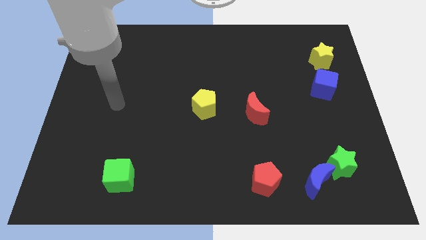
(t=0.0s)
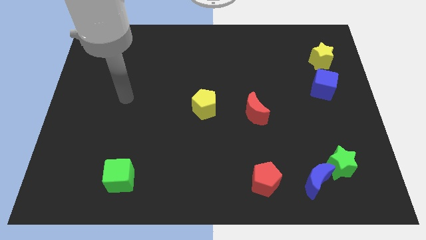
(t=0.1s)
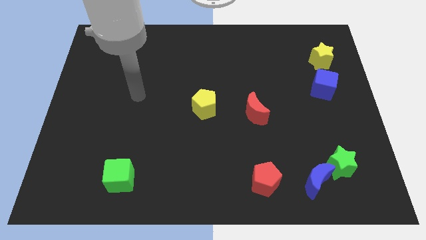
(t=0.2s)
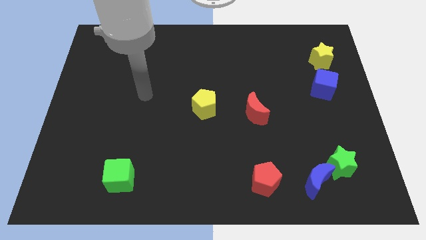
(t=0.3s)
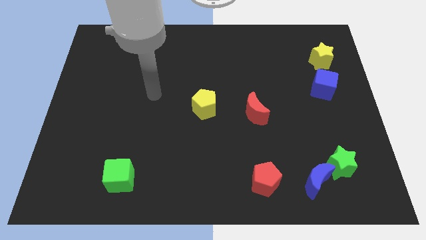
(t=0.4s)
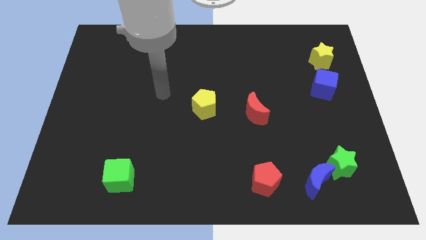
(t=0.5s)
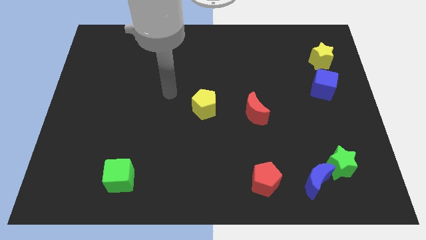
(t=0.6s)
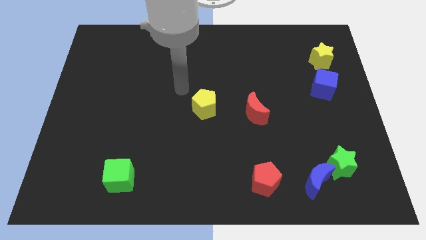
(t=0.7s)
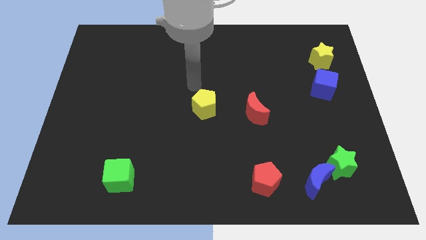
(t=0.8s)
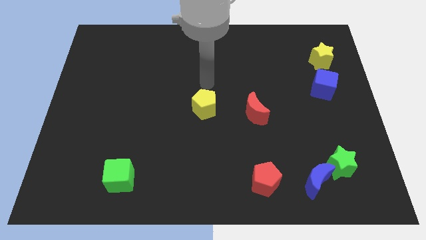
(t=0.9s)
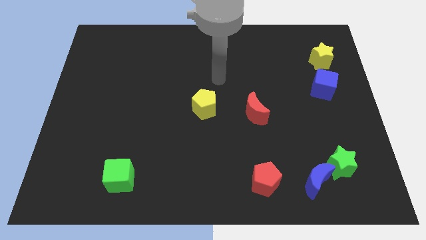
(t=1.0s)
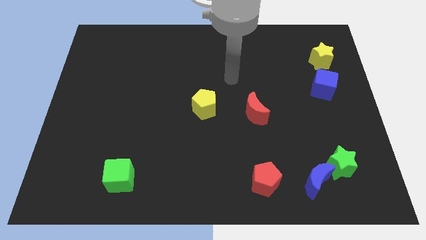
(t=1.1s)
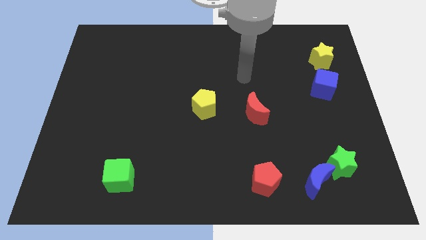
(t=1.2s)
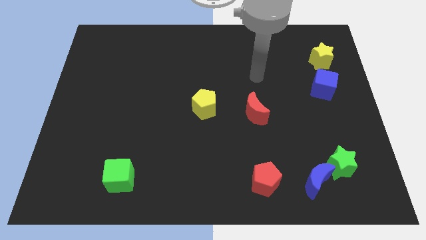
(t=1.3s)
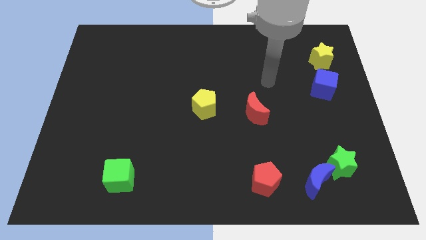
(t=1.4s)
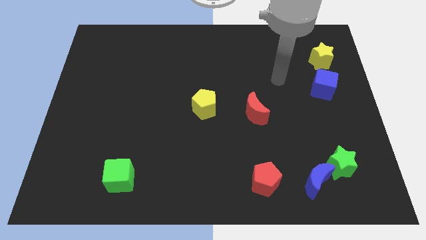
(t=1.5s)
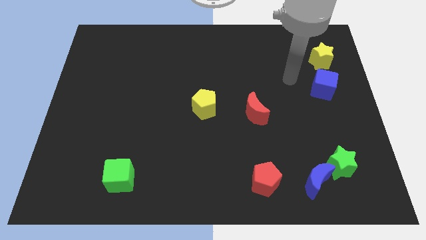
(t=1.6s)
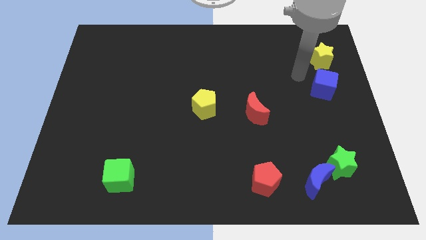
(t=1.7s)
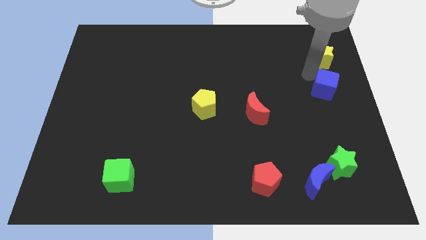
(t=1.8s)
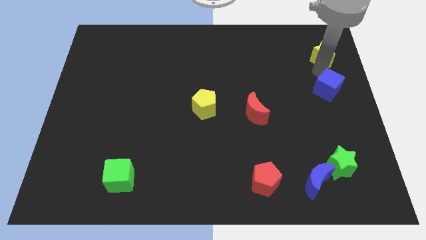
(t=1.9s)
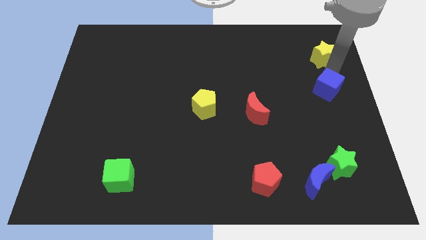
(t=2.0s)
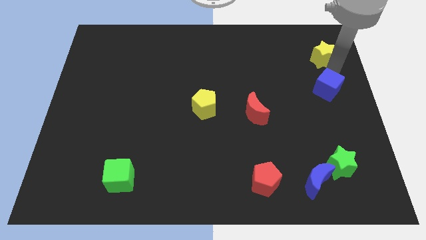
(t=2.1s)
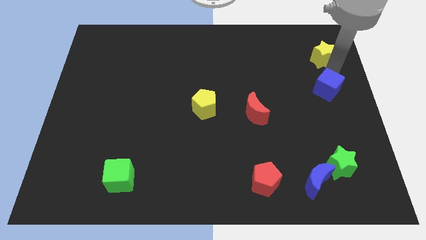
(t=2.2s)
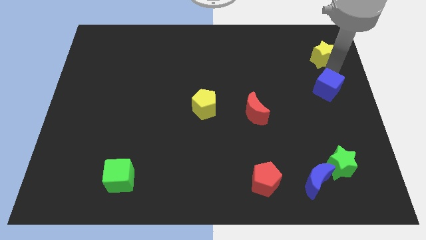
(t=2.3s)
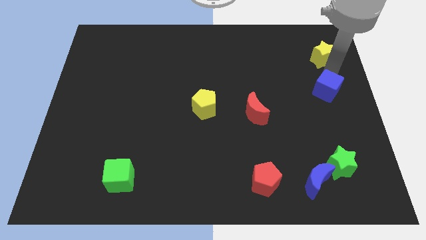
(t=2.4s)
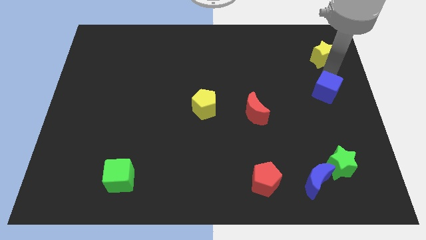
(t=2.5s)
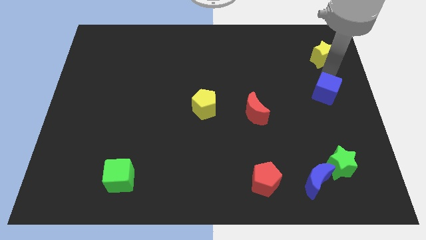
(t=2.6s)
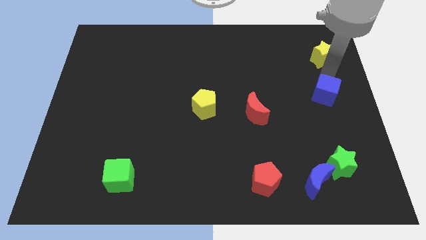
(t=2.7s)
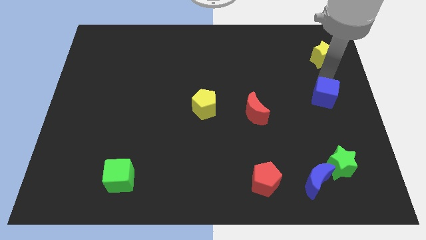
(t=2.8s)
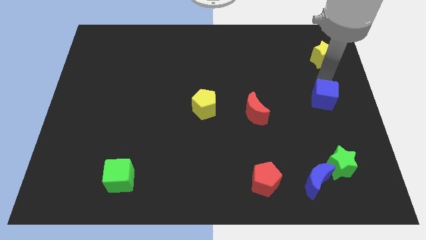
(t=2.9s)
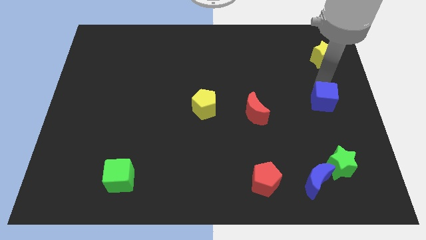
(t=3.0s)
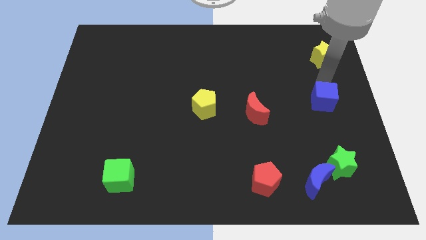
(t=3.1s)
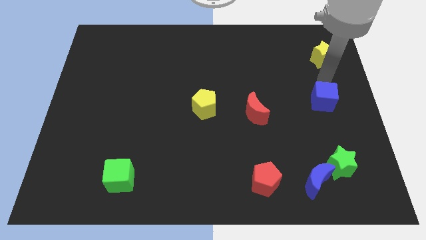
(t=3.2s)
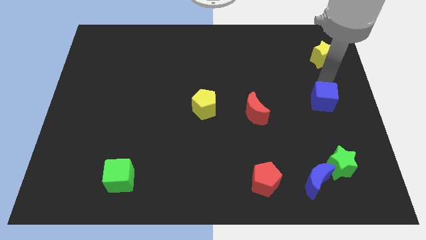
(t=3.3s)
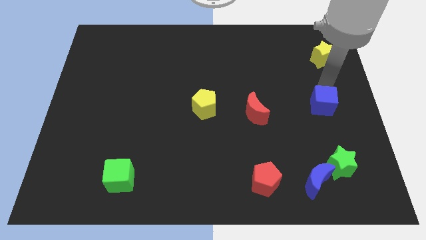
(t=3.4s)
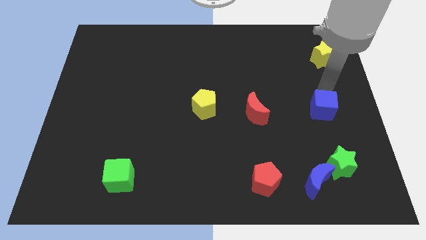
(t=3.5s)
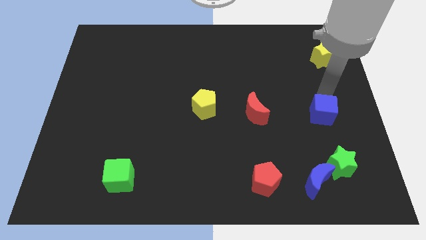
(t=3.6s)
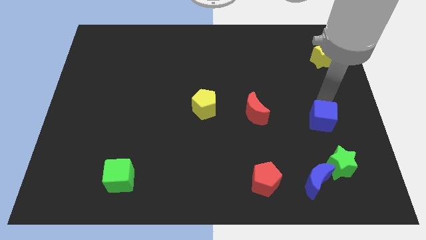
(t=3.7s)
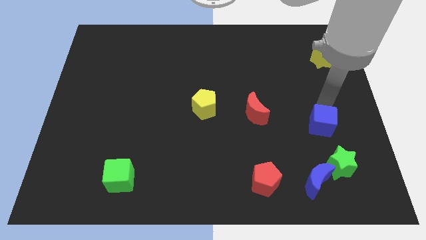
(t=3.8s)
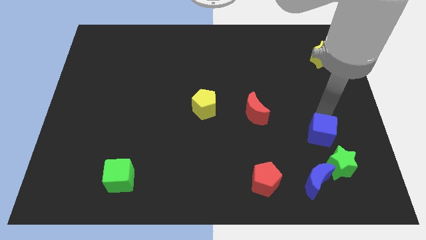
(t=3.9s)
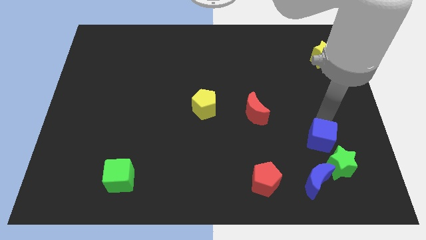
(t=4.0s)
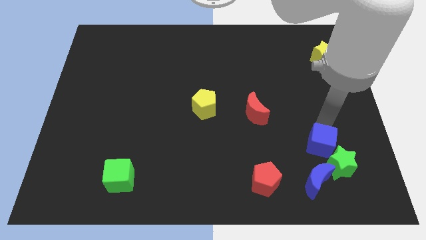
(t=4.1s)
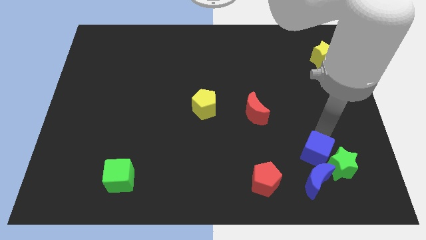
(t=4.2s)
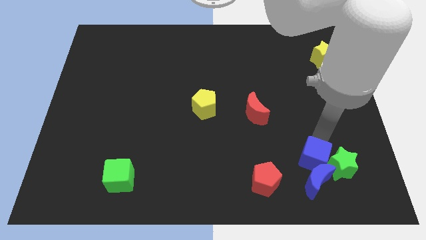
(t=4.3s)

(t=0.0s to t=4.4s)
move the blue cube to the blue moon

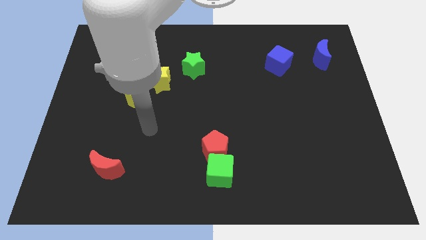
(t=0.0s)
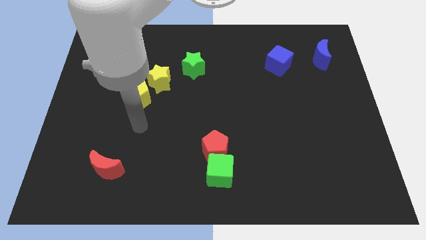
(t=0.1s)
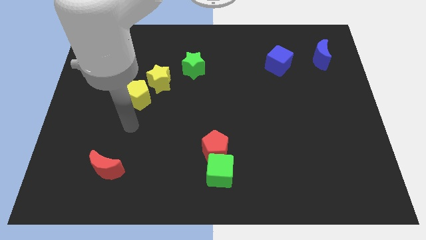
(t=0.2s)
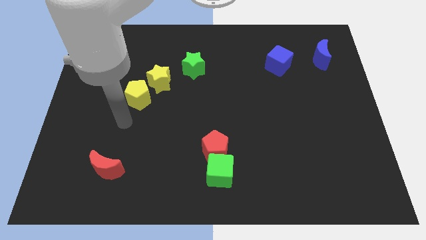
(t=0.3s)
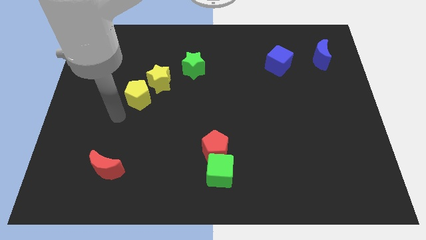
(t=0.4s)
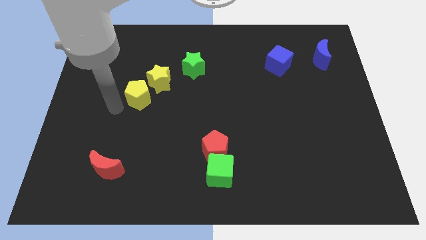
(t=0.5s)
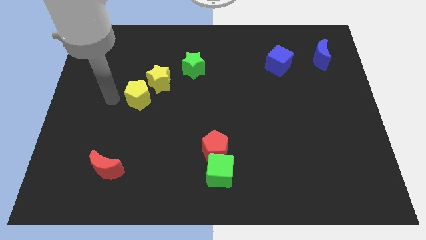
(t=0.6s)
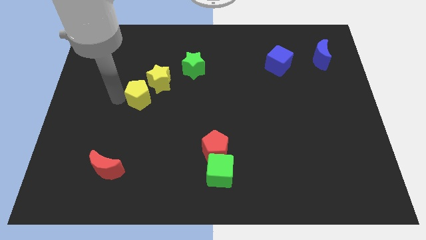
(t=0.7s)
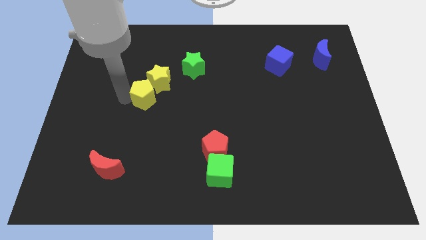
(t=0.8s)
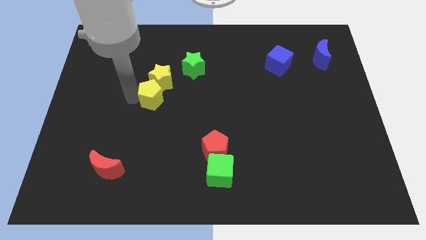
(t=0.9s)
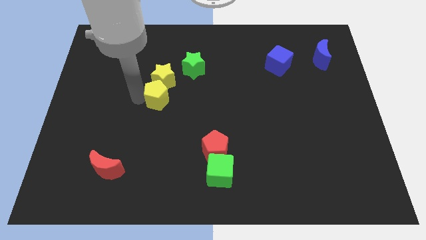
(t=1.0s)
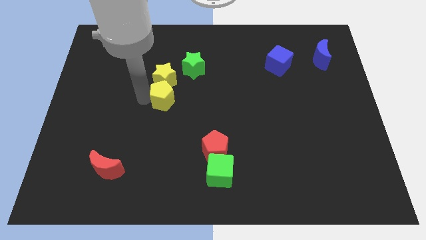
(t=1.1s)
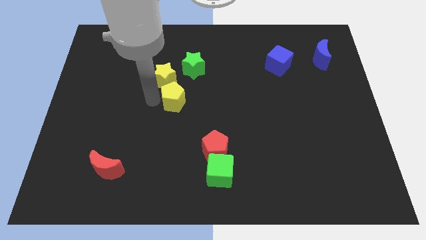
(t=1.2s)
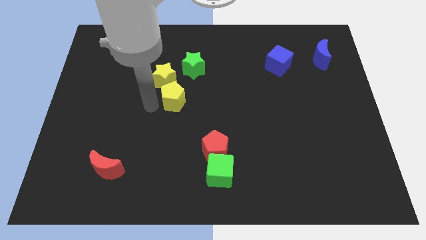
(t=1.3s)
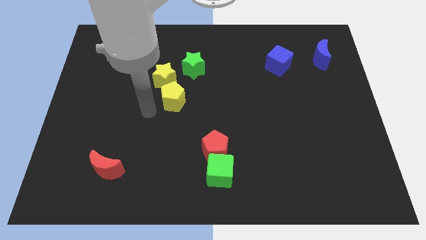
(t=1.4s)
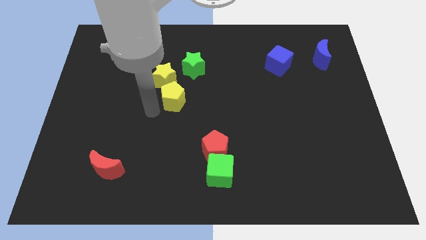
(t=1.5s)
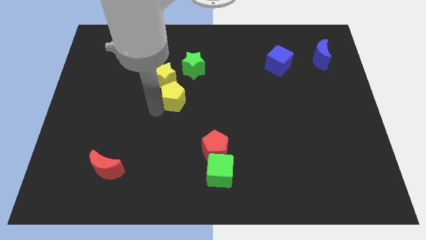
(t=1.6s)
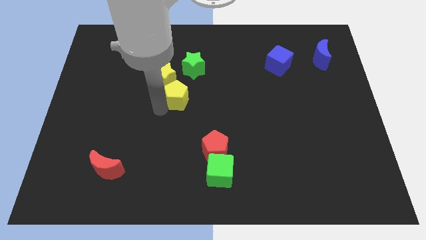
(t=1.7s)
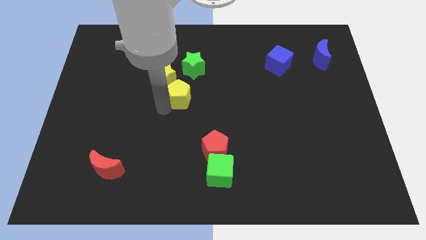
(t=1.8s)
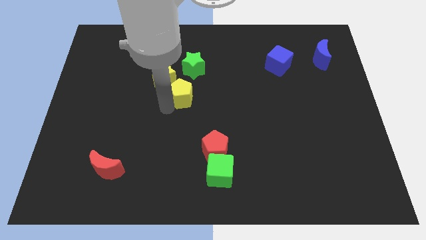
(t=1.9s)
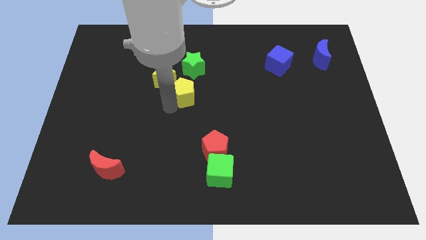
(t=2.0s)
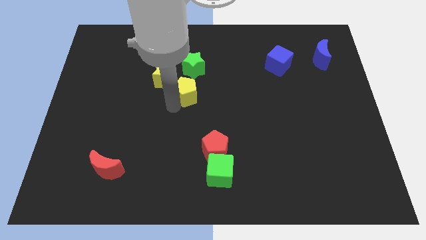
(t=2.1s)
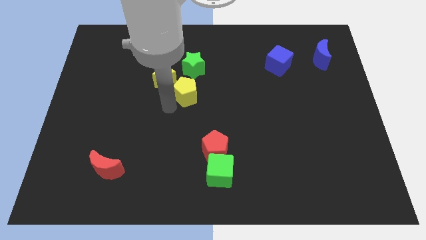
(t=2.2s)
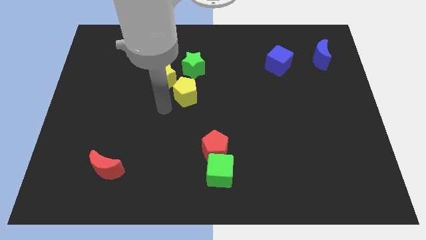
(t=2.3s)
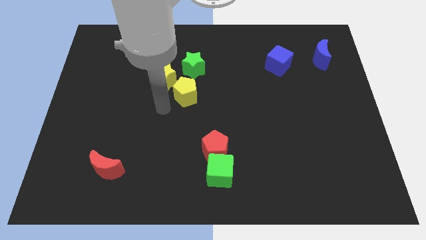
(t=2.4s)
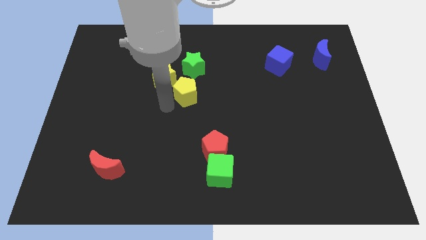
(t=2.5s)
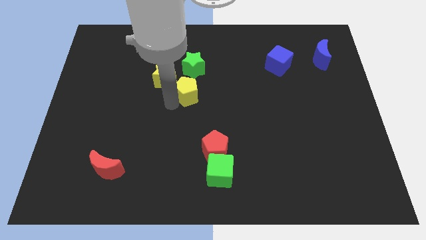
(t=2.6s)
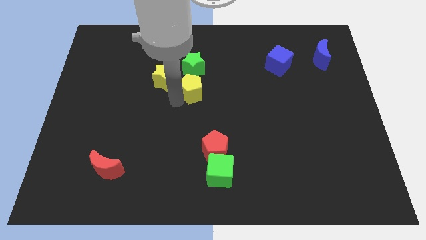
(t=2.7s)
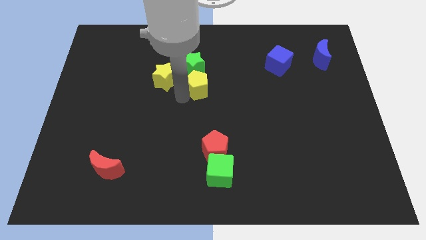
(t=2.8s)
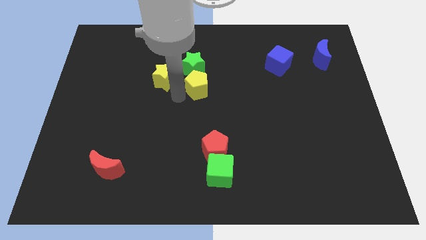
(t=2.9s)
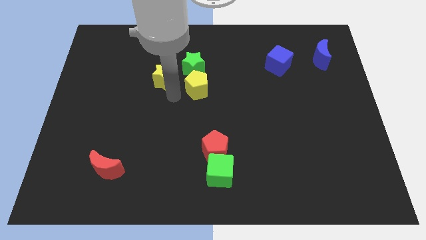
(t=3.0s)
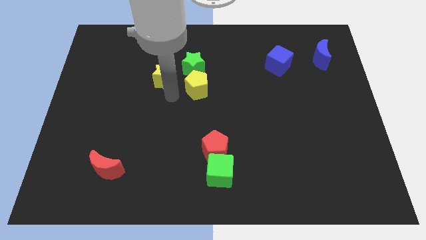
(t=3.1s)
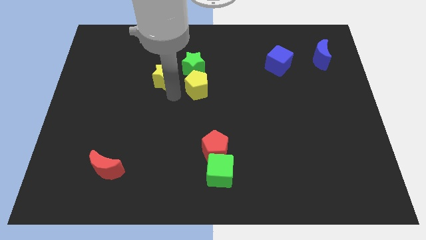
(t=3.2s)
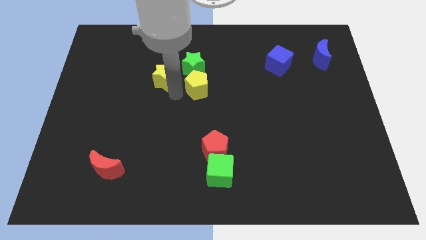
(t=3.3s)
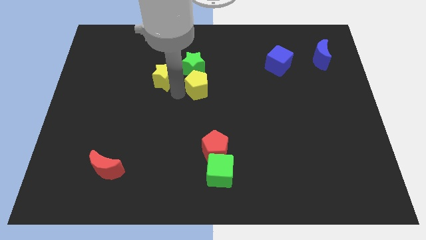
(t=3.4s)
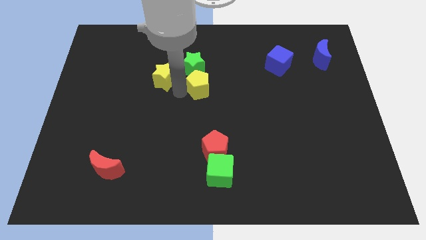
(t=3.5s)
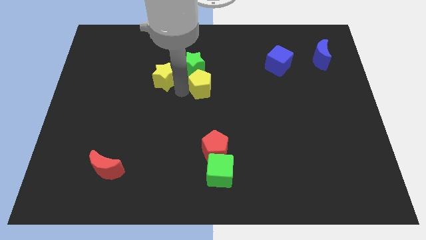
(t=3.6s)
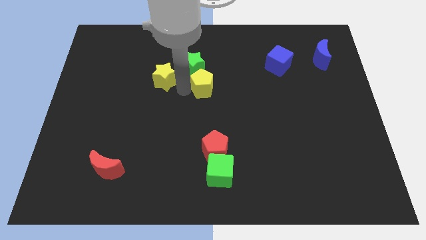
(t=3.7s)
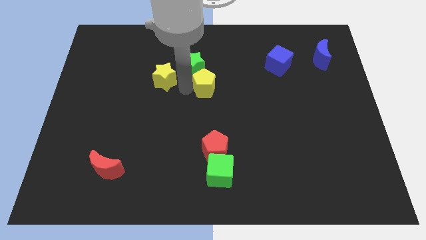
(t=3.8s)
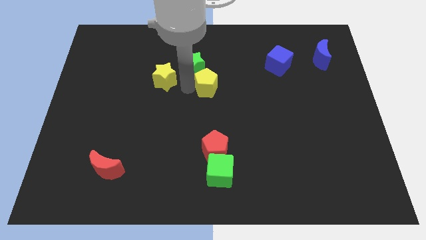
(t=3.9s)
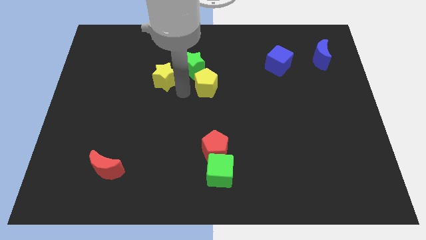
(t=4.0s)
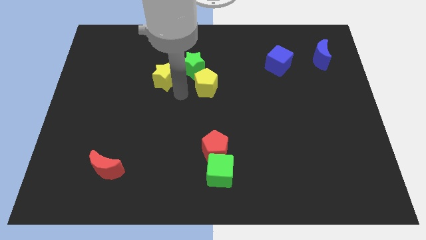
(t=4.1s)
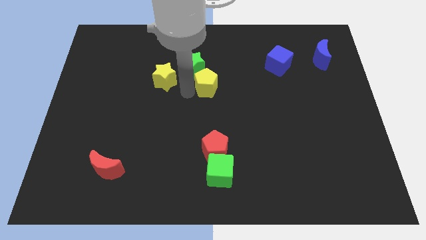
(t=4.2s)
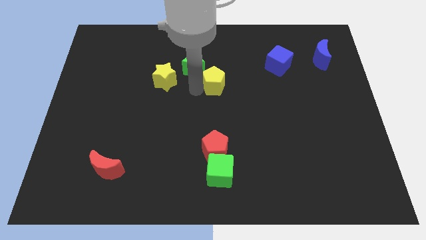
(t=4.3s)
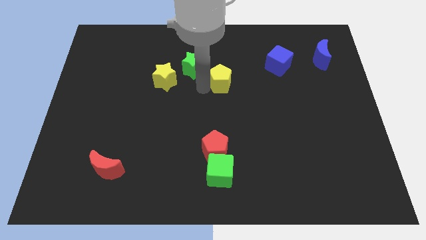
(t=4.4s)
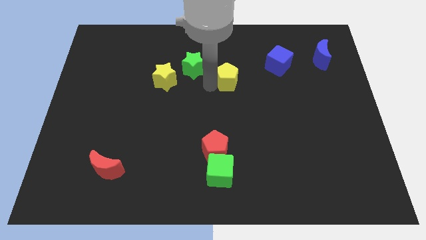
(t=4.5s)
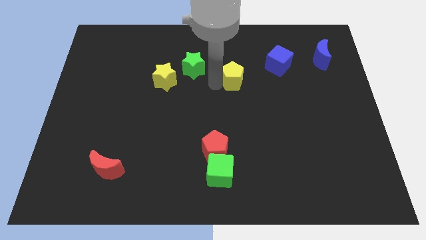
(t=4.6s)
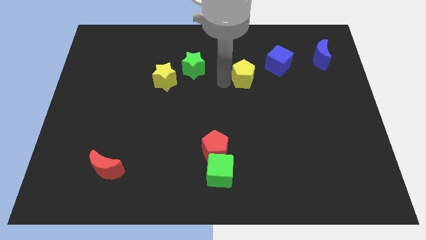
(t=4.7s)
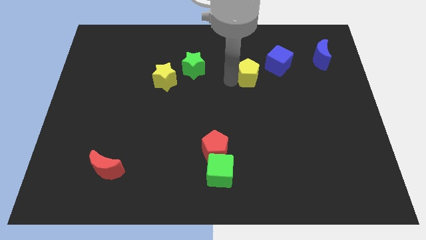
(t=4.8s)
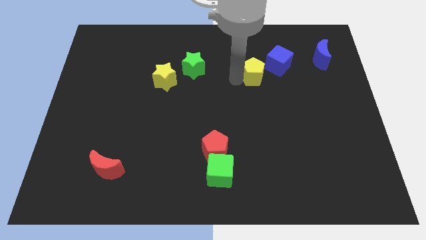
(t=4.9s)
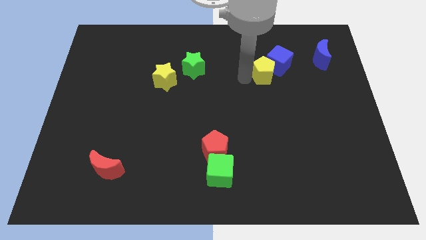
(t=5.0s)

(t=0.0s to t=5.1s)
put the yellow pentagon towards the blue cube
